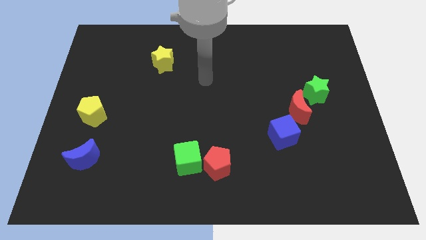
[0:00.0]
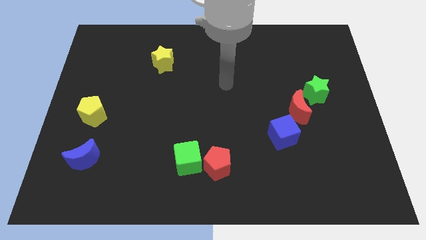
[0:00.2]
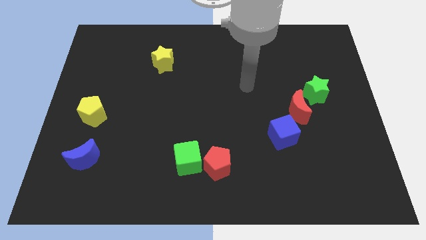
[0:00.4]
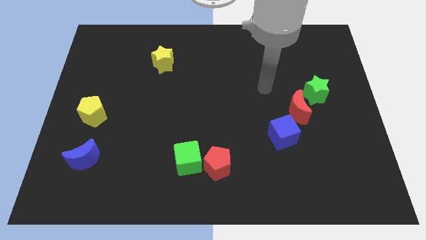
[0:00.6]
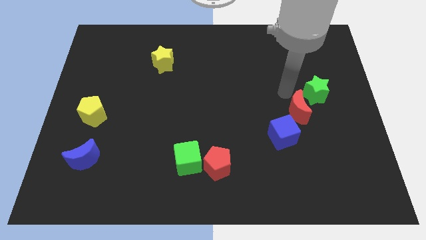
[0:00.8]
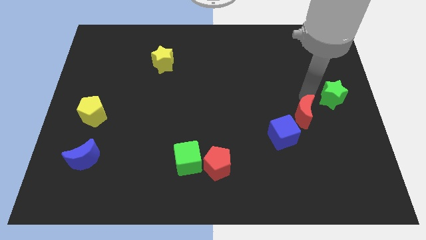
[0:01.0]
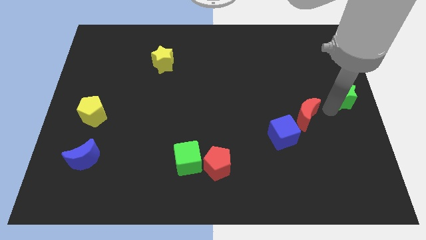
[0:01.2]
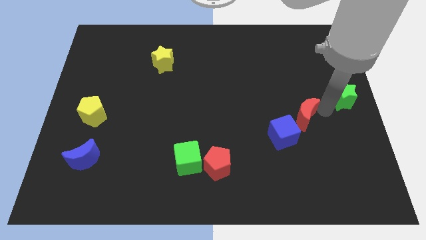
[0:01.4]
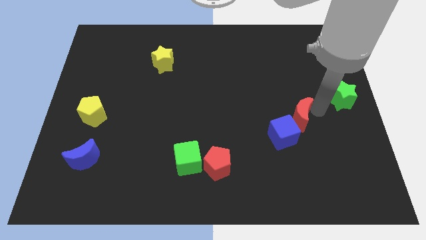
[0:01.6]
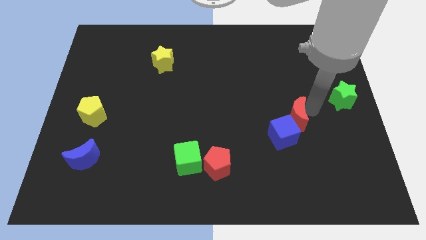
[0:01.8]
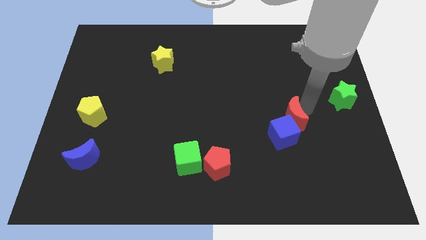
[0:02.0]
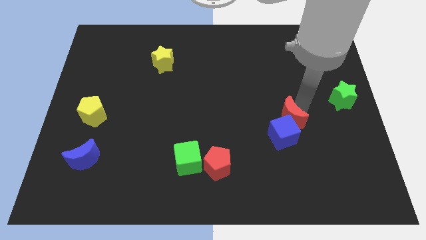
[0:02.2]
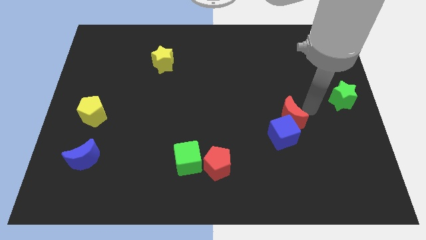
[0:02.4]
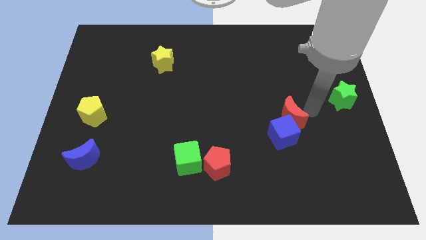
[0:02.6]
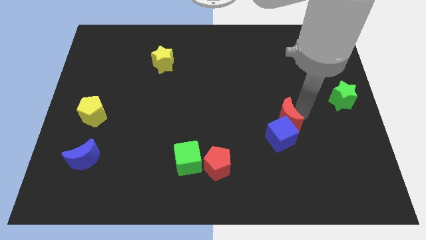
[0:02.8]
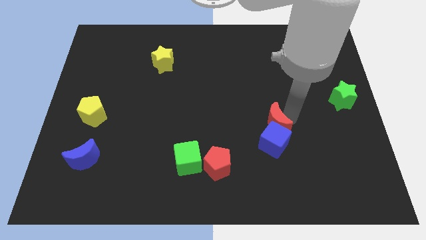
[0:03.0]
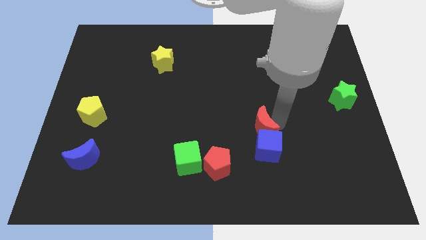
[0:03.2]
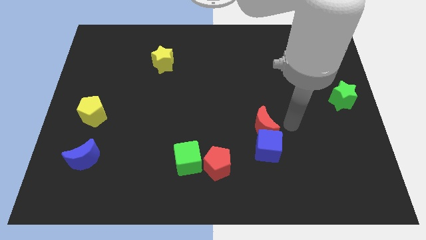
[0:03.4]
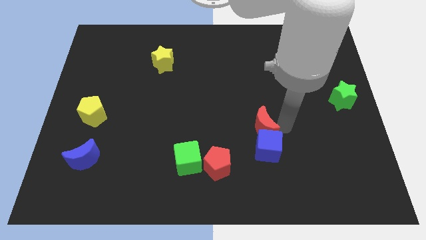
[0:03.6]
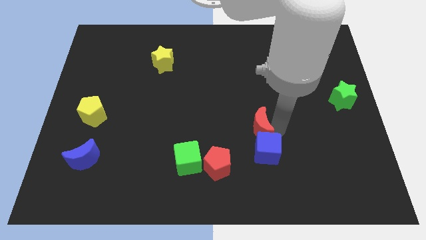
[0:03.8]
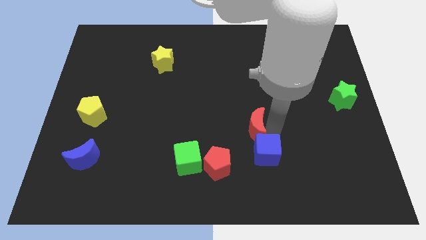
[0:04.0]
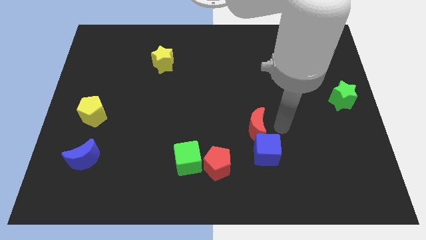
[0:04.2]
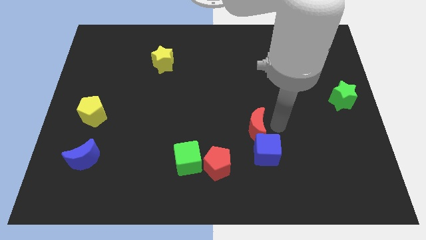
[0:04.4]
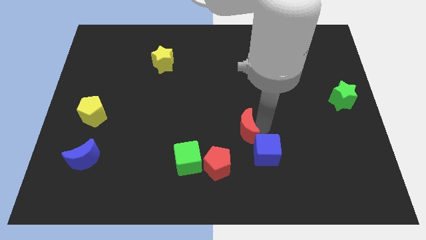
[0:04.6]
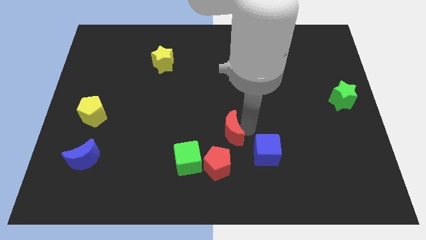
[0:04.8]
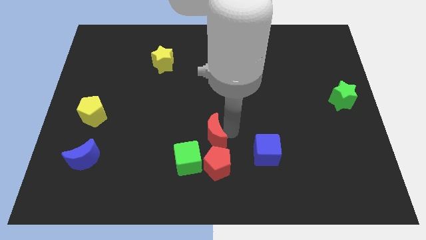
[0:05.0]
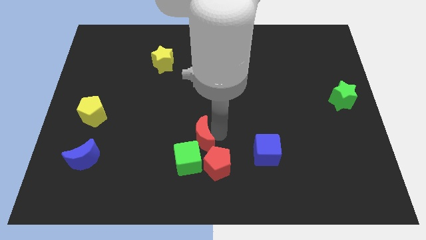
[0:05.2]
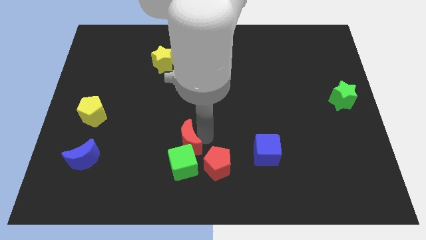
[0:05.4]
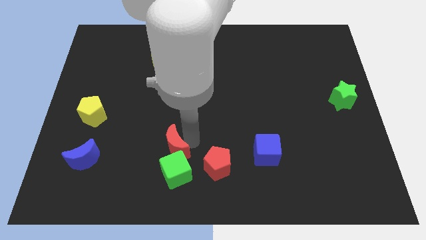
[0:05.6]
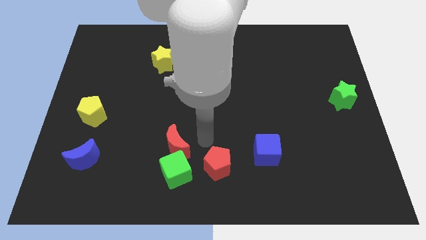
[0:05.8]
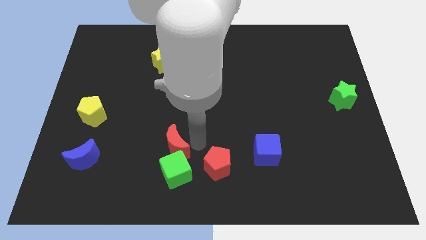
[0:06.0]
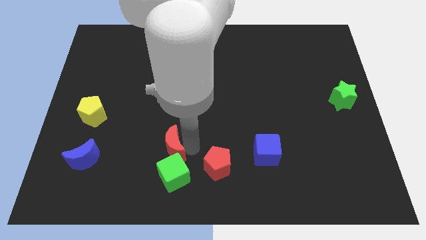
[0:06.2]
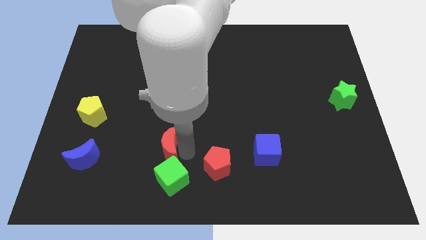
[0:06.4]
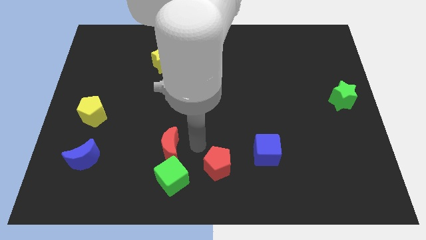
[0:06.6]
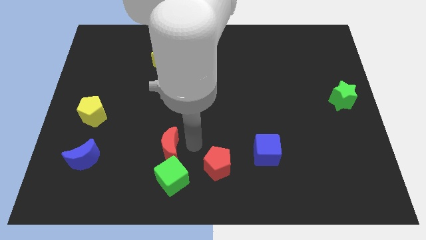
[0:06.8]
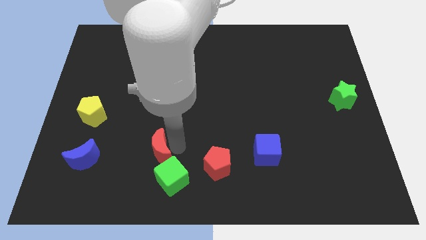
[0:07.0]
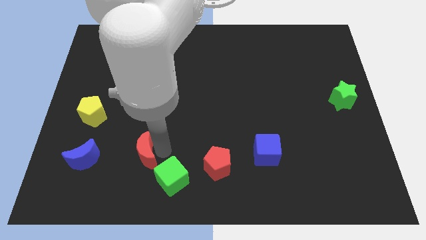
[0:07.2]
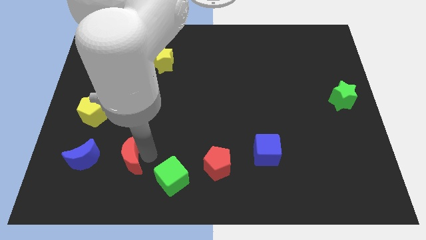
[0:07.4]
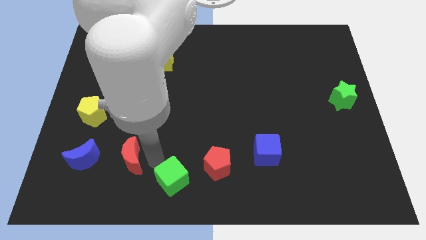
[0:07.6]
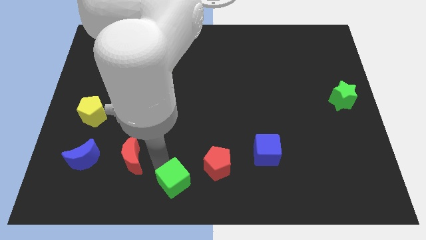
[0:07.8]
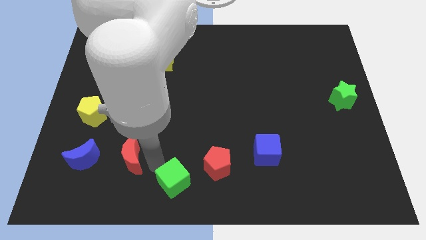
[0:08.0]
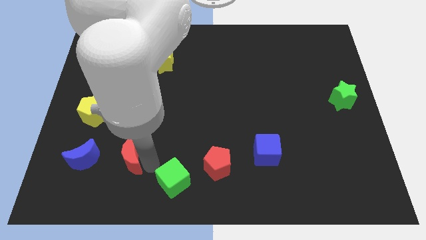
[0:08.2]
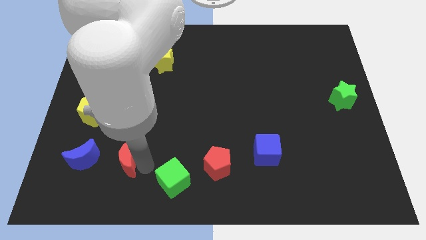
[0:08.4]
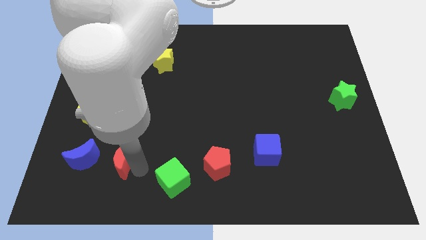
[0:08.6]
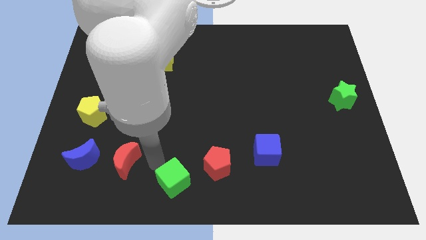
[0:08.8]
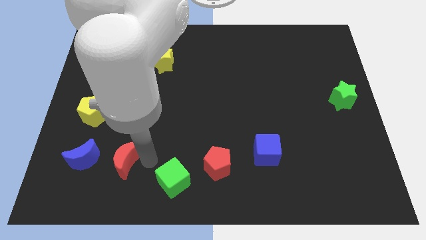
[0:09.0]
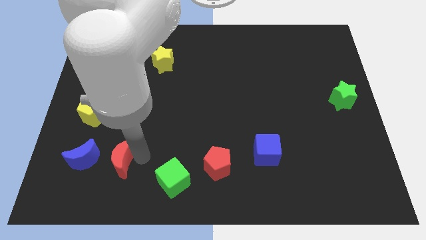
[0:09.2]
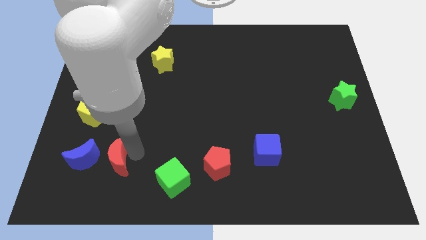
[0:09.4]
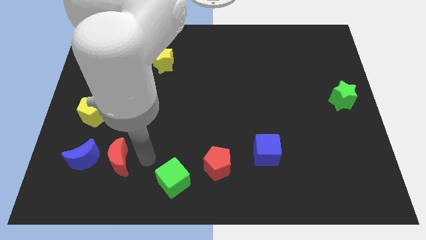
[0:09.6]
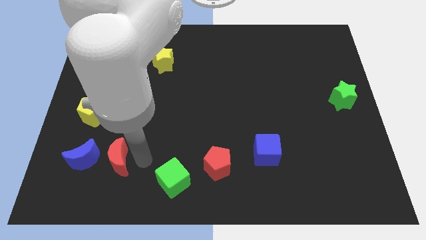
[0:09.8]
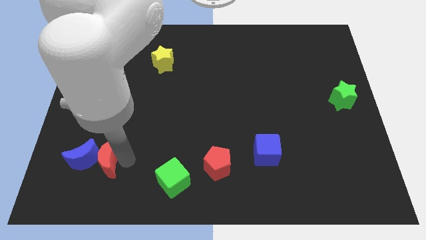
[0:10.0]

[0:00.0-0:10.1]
slide the red moon next to the blue moon

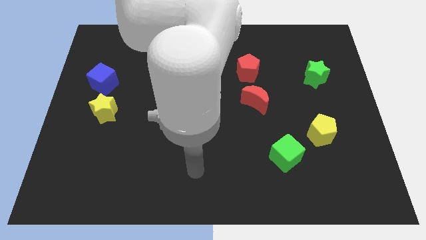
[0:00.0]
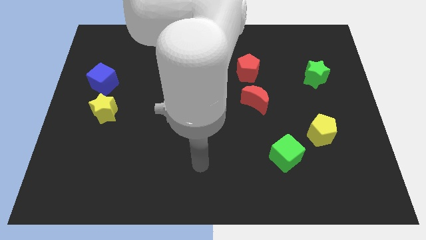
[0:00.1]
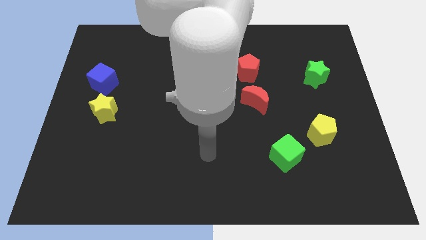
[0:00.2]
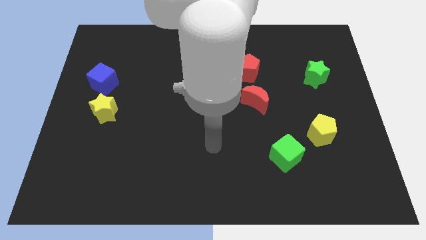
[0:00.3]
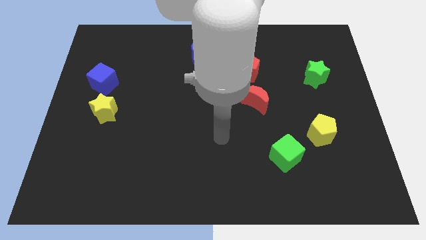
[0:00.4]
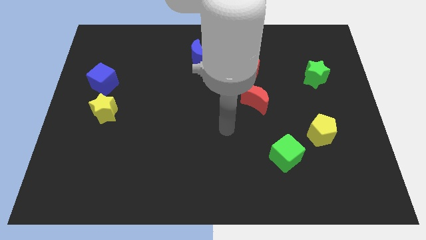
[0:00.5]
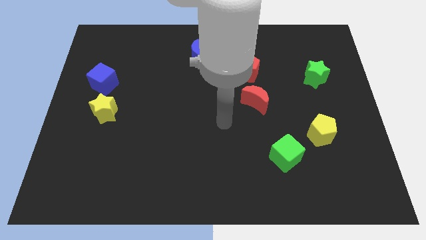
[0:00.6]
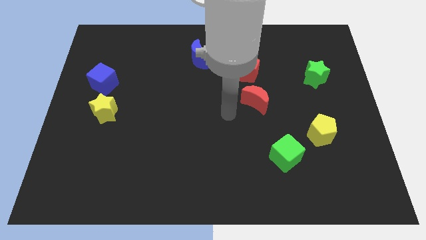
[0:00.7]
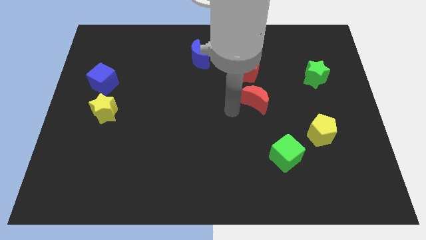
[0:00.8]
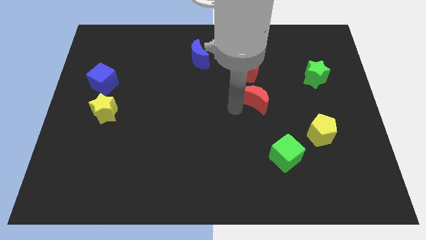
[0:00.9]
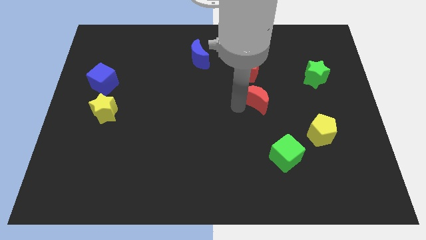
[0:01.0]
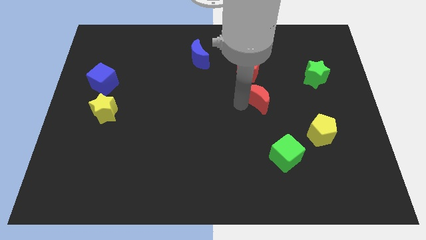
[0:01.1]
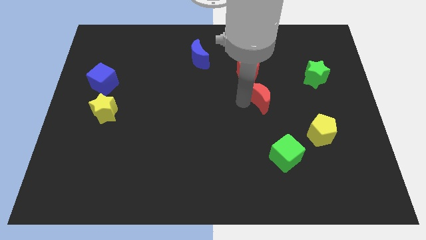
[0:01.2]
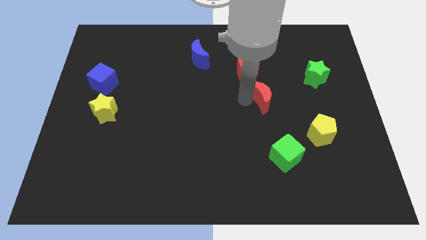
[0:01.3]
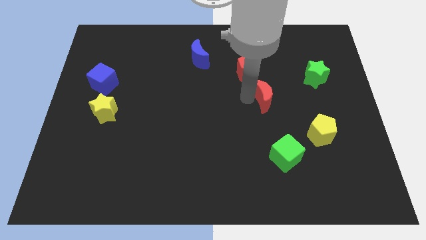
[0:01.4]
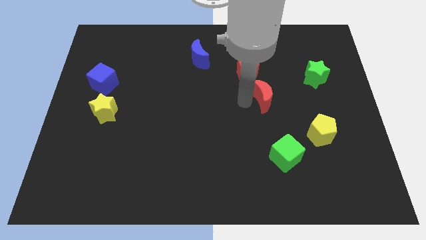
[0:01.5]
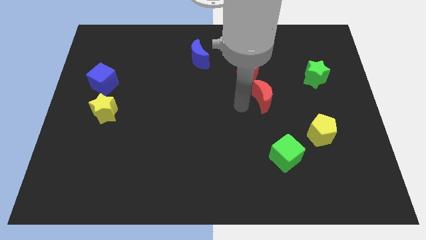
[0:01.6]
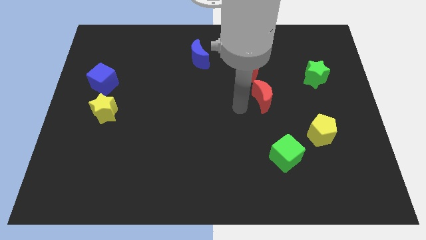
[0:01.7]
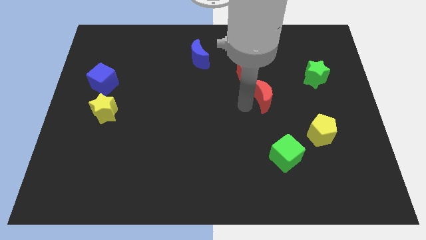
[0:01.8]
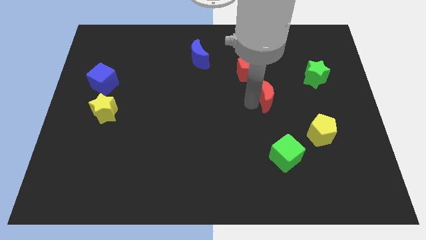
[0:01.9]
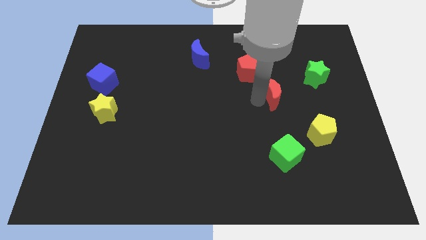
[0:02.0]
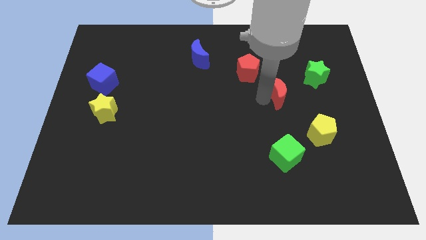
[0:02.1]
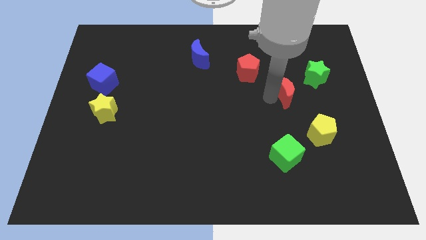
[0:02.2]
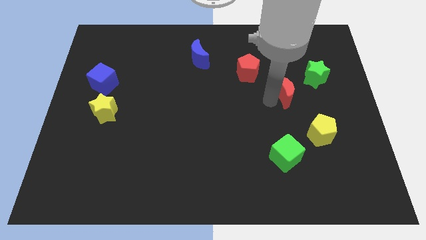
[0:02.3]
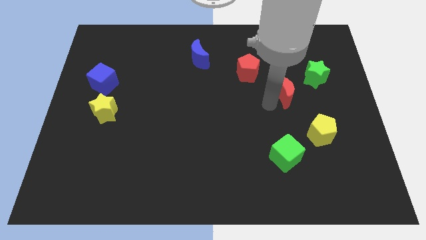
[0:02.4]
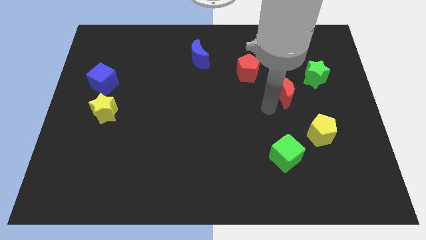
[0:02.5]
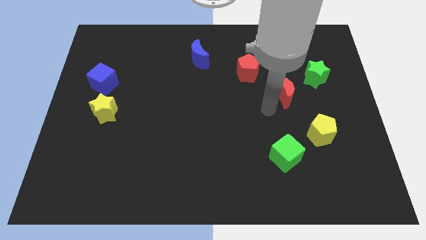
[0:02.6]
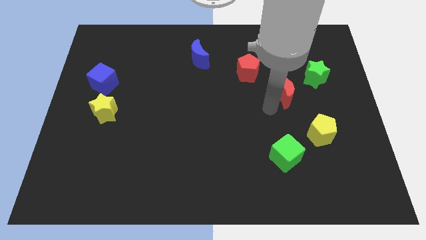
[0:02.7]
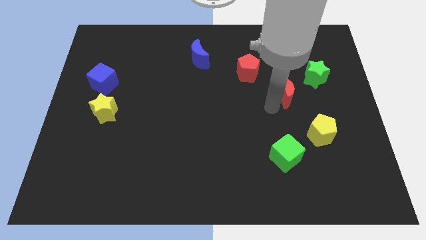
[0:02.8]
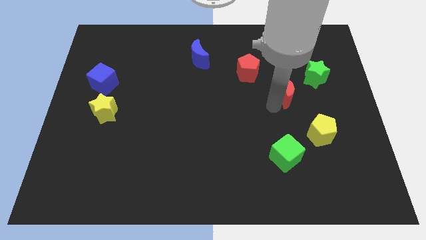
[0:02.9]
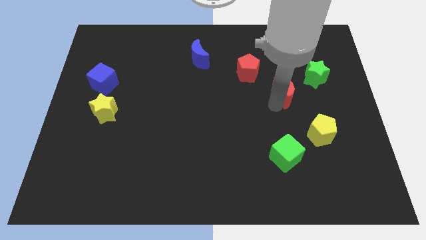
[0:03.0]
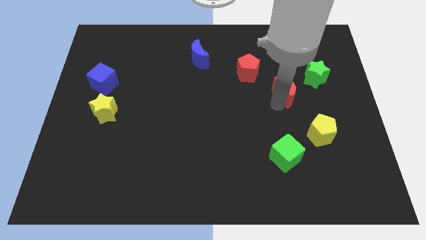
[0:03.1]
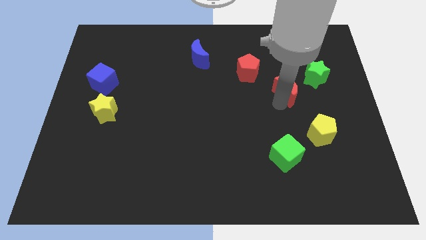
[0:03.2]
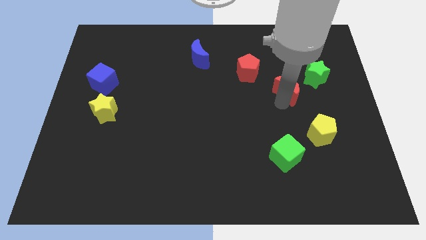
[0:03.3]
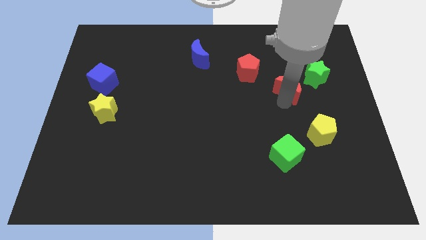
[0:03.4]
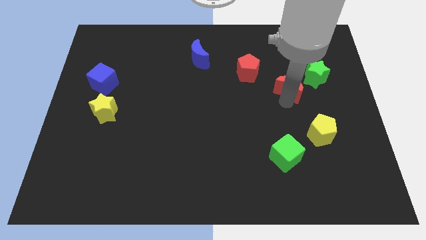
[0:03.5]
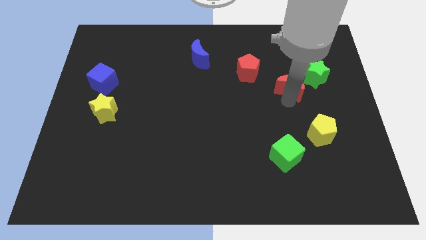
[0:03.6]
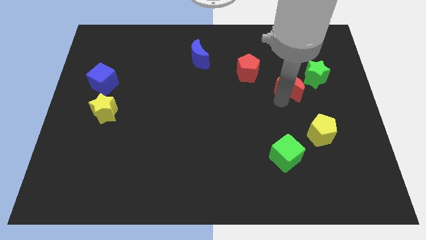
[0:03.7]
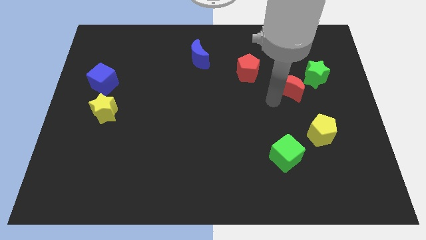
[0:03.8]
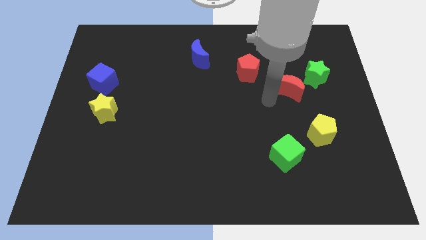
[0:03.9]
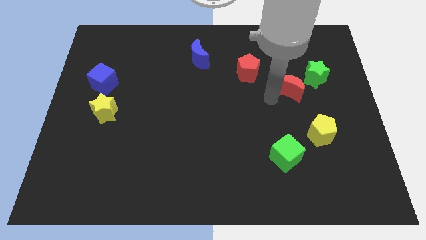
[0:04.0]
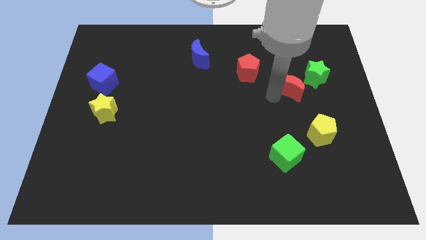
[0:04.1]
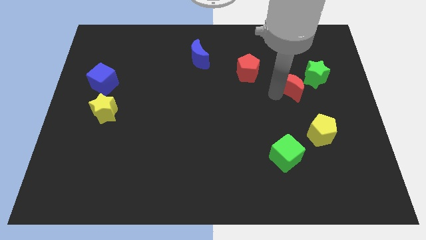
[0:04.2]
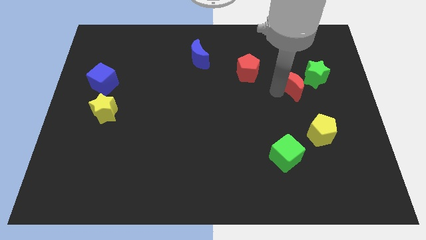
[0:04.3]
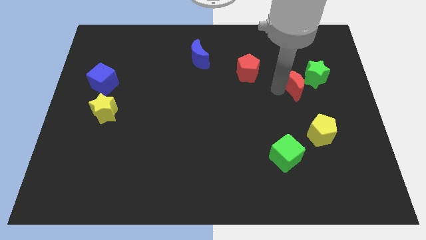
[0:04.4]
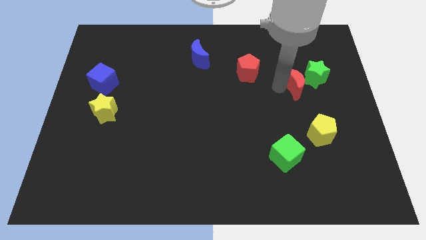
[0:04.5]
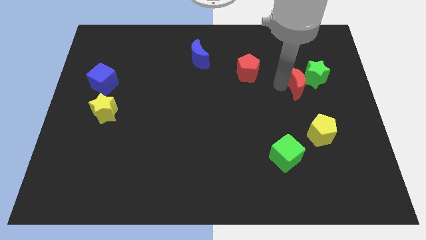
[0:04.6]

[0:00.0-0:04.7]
move the red moon next to the green star
